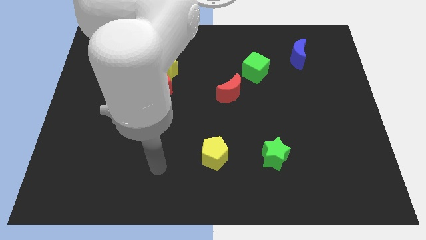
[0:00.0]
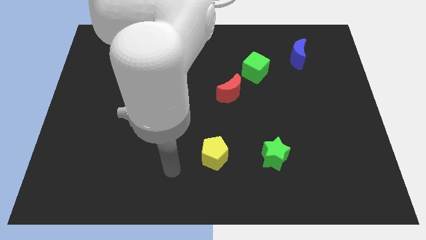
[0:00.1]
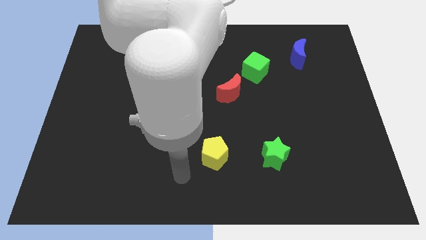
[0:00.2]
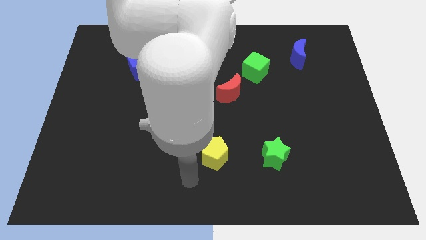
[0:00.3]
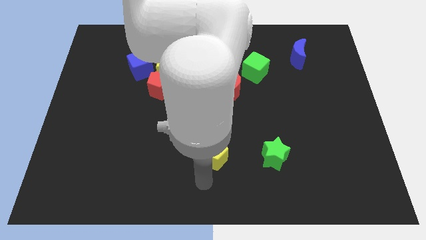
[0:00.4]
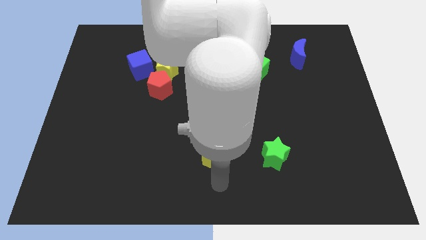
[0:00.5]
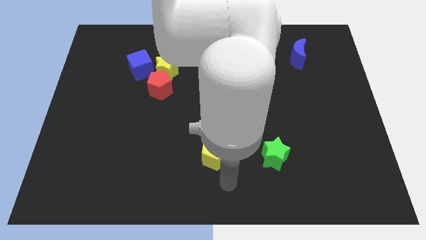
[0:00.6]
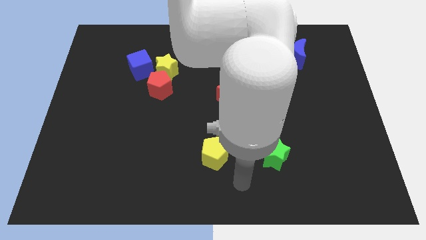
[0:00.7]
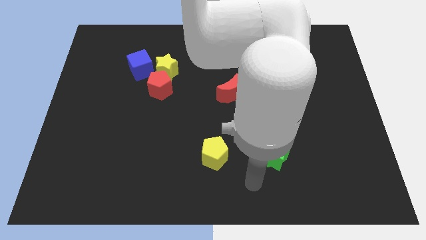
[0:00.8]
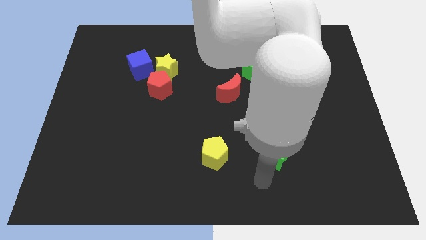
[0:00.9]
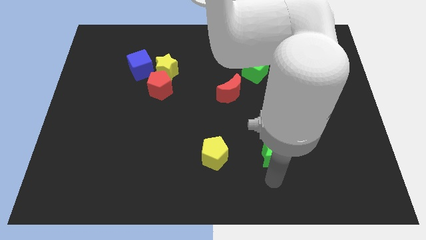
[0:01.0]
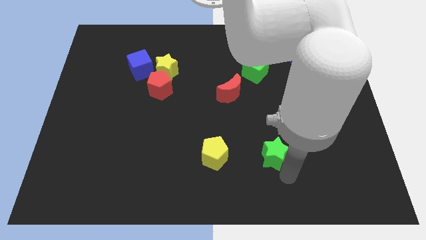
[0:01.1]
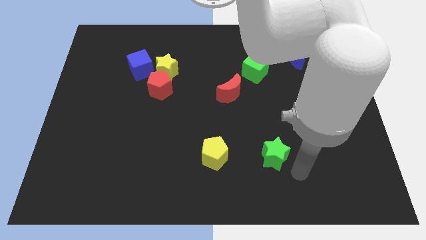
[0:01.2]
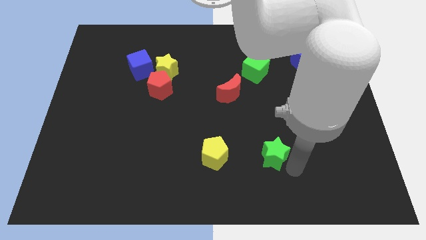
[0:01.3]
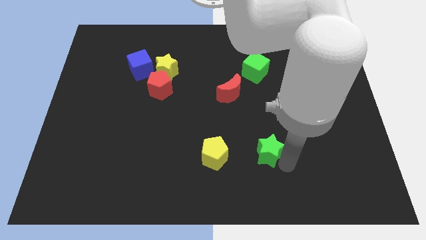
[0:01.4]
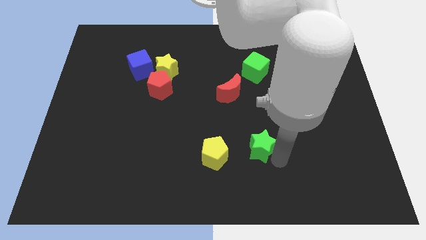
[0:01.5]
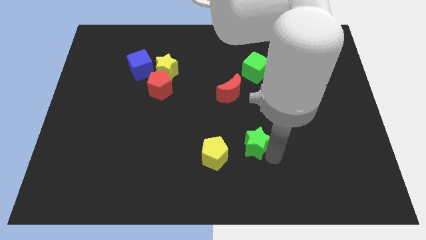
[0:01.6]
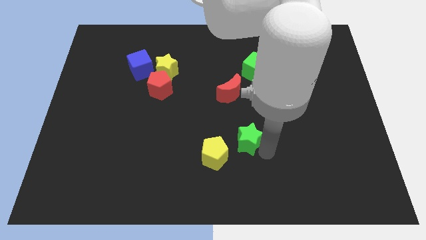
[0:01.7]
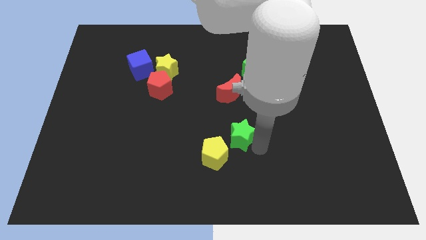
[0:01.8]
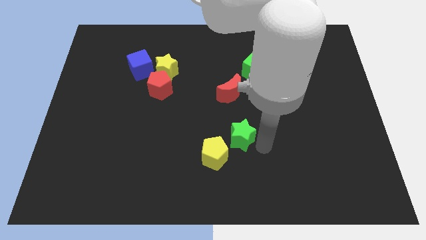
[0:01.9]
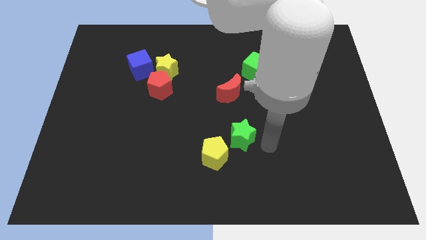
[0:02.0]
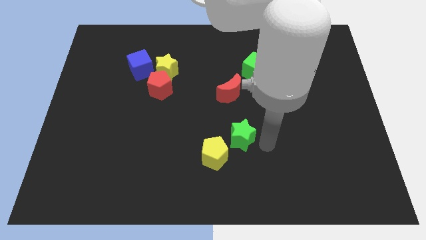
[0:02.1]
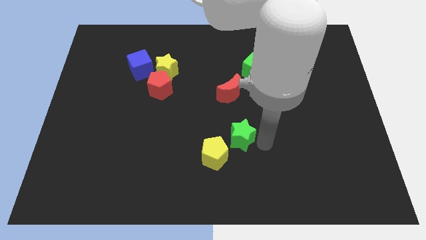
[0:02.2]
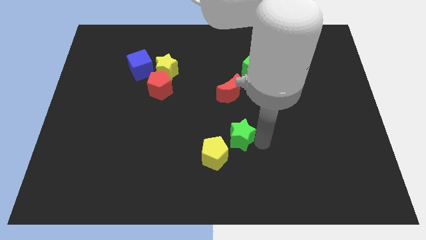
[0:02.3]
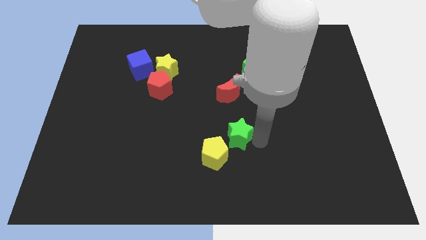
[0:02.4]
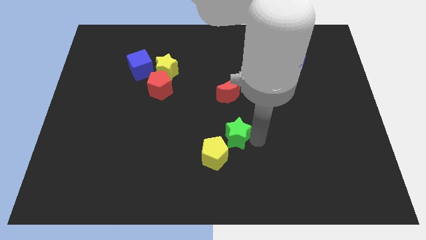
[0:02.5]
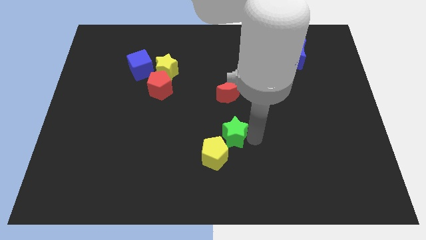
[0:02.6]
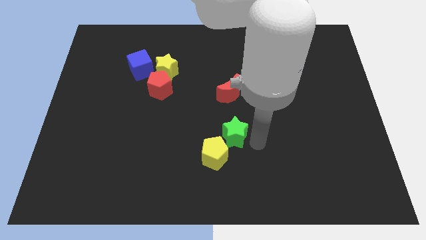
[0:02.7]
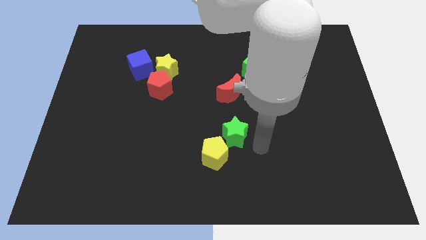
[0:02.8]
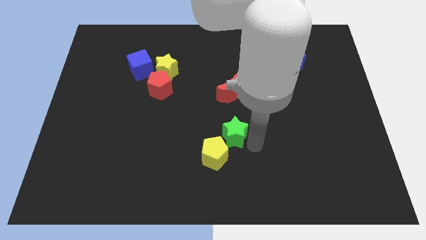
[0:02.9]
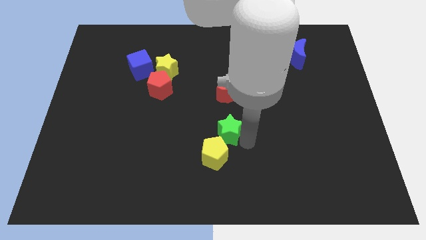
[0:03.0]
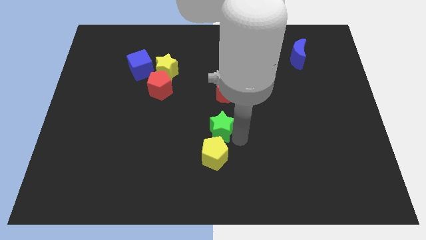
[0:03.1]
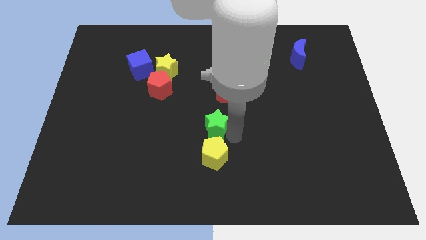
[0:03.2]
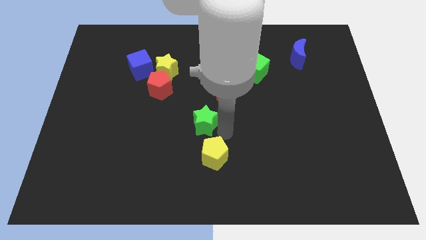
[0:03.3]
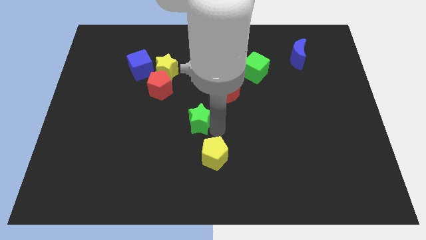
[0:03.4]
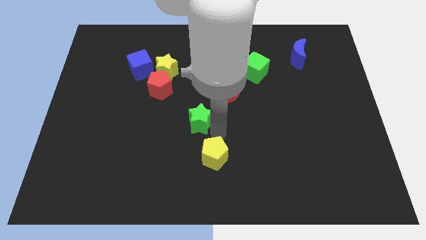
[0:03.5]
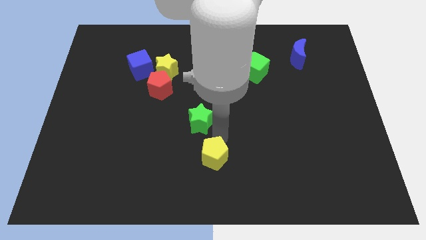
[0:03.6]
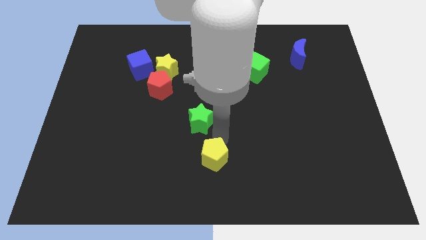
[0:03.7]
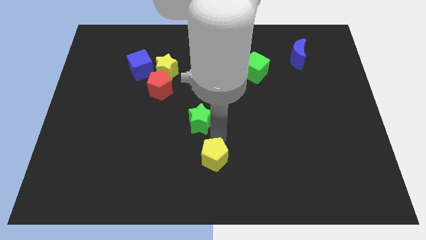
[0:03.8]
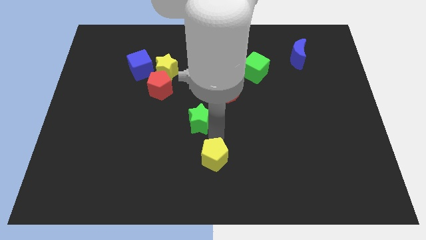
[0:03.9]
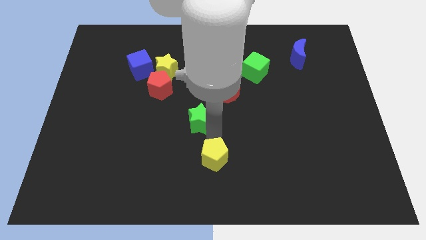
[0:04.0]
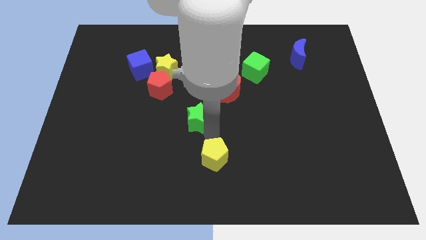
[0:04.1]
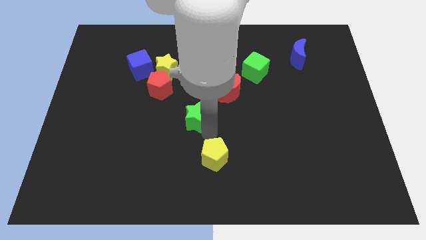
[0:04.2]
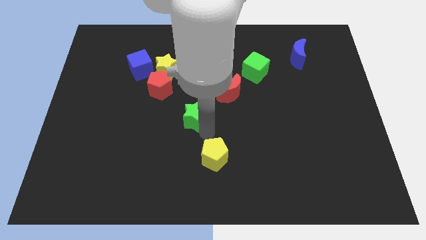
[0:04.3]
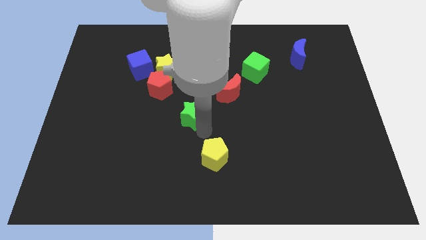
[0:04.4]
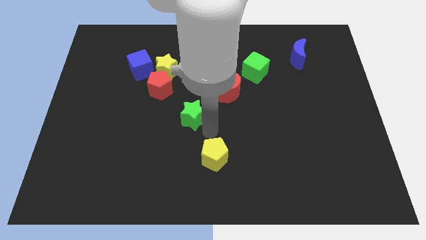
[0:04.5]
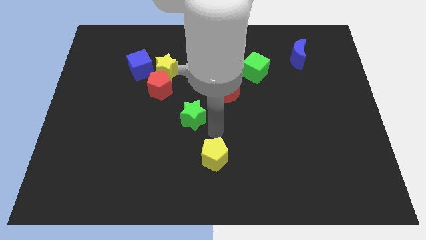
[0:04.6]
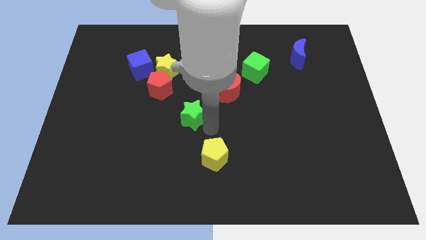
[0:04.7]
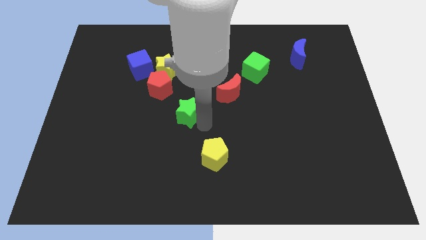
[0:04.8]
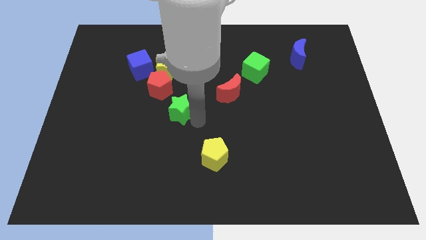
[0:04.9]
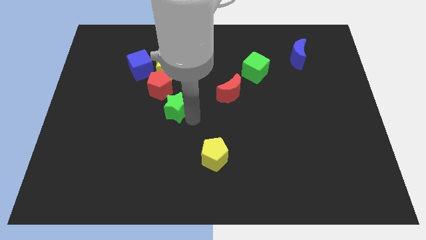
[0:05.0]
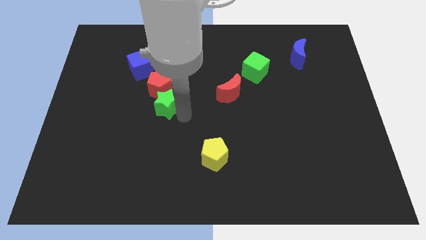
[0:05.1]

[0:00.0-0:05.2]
slide the green star next to the red pentagon

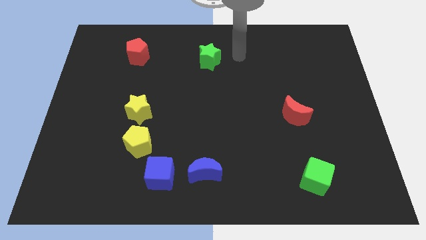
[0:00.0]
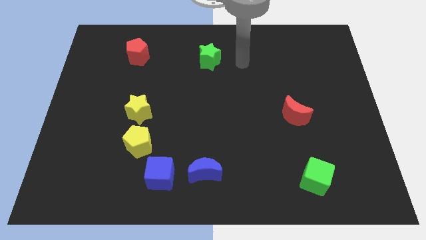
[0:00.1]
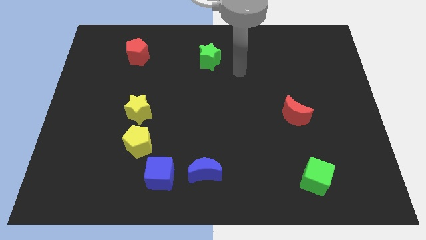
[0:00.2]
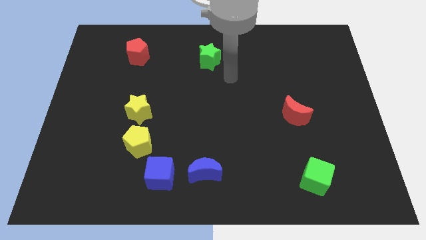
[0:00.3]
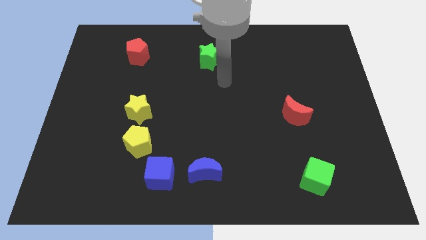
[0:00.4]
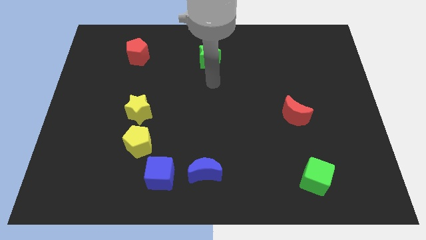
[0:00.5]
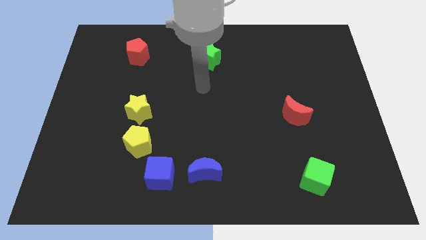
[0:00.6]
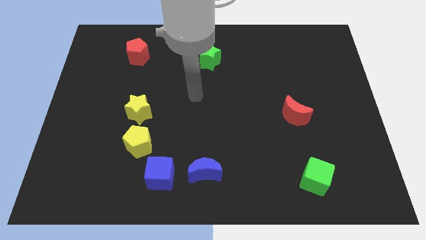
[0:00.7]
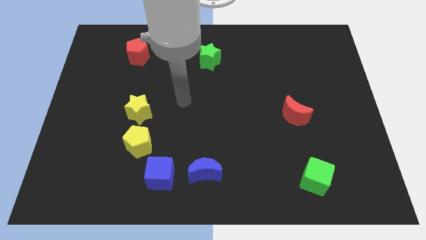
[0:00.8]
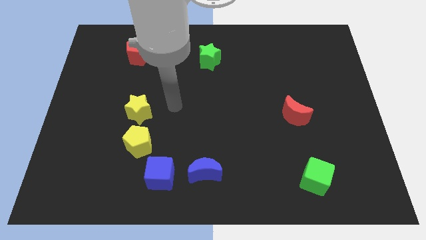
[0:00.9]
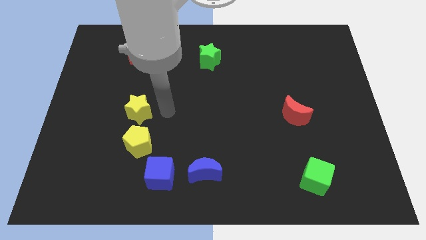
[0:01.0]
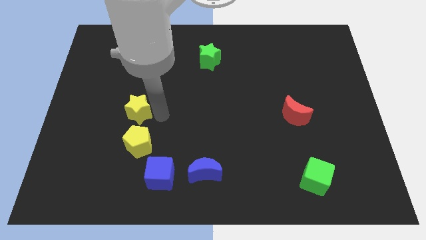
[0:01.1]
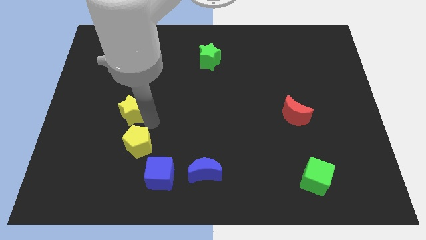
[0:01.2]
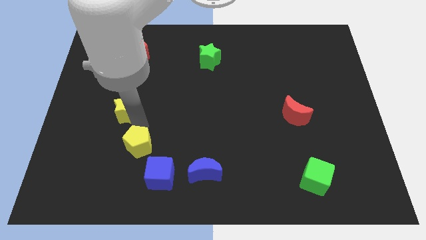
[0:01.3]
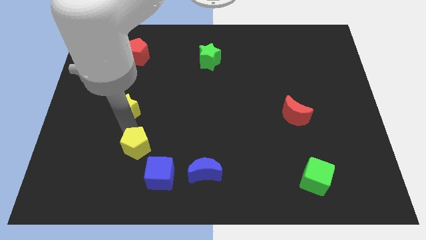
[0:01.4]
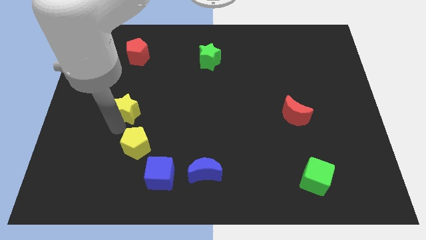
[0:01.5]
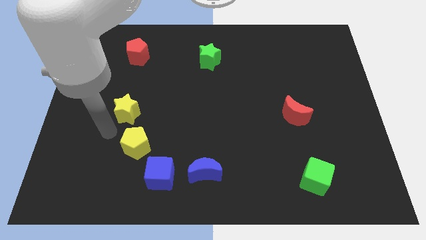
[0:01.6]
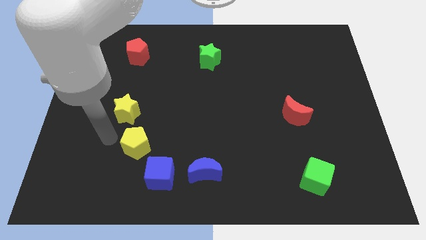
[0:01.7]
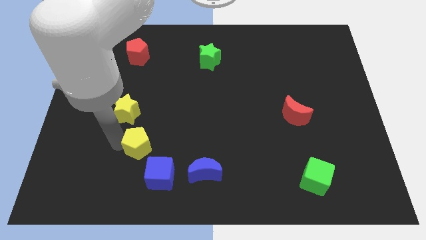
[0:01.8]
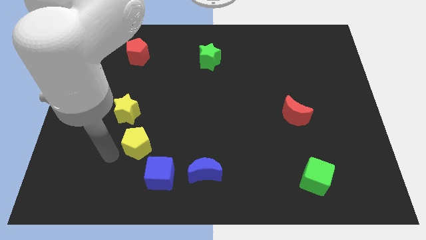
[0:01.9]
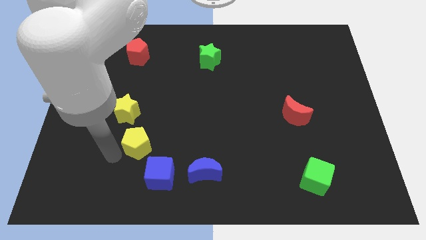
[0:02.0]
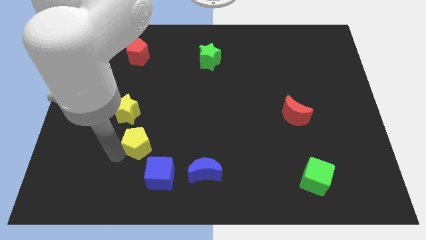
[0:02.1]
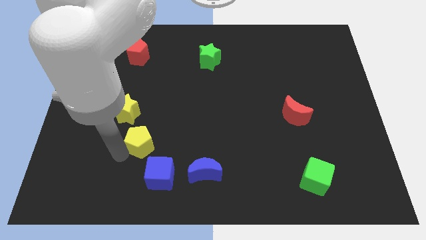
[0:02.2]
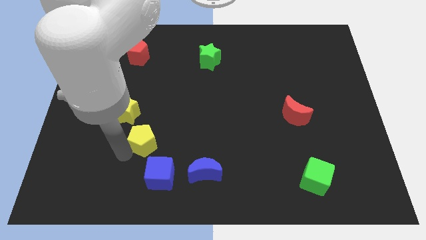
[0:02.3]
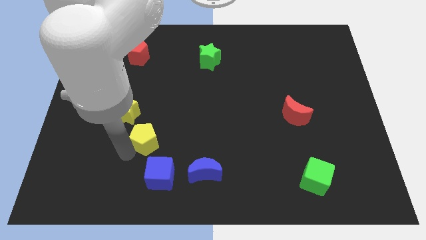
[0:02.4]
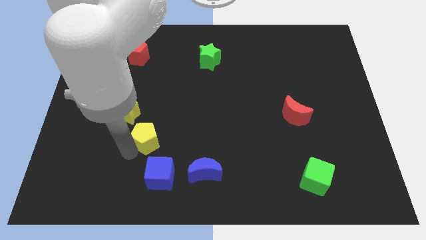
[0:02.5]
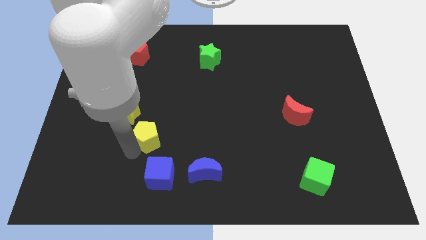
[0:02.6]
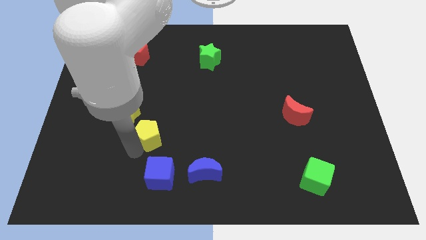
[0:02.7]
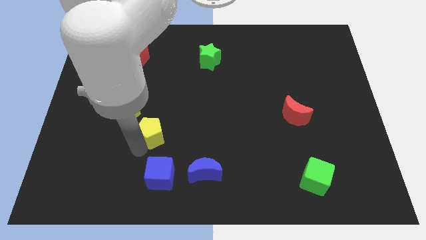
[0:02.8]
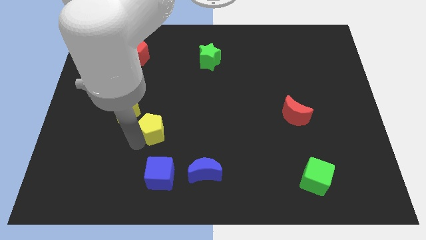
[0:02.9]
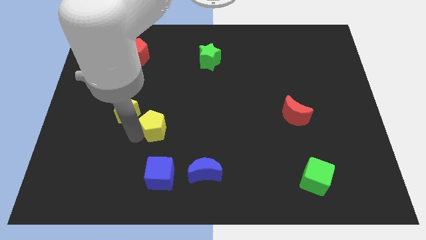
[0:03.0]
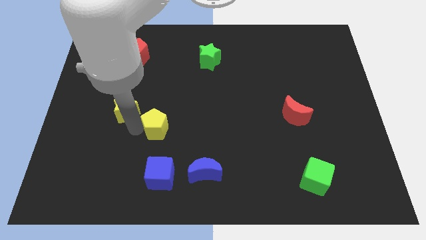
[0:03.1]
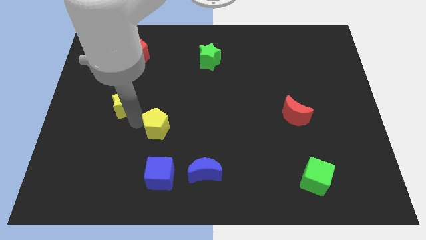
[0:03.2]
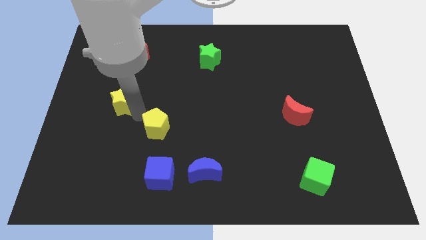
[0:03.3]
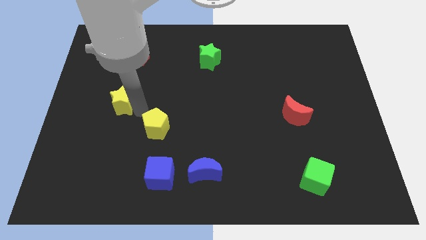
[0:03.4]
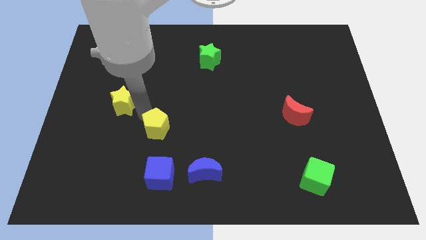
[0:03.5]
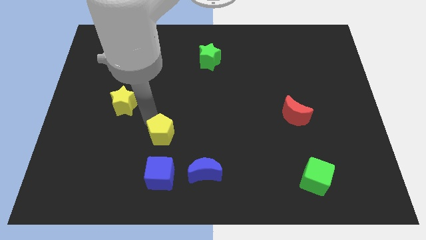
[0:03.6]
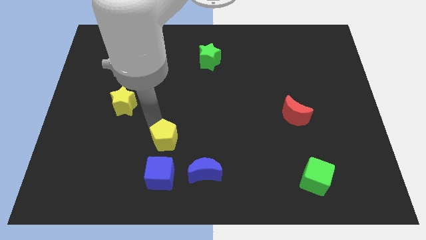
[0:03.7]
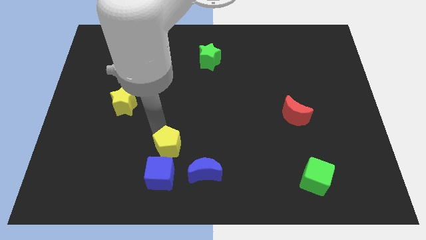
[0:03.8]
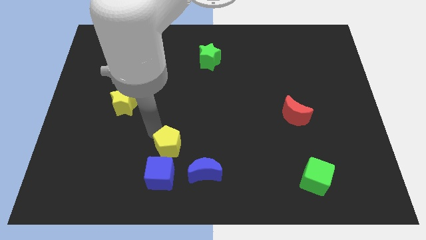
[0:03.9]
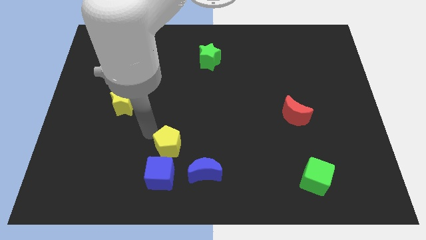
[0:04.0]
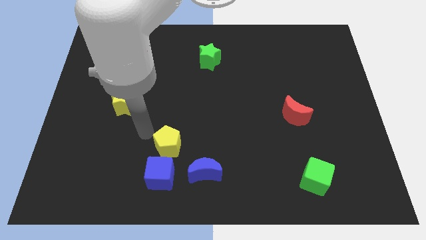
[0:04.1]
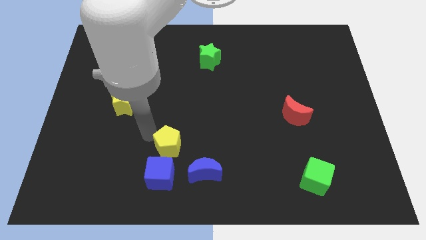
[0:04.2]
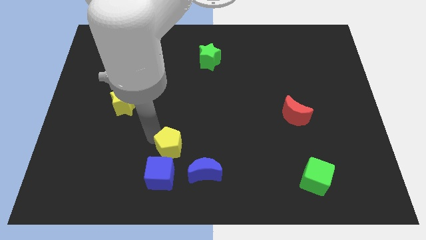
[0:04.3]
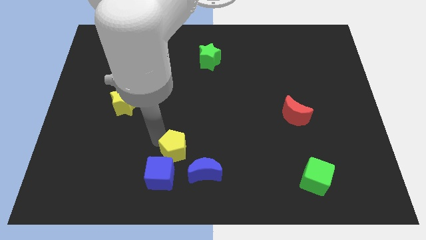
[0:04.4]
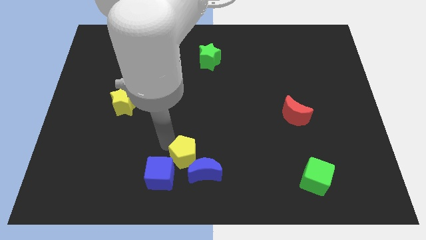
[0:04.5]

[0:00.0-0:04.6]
slide the yellow pentagon close to the blue moon
